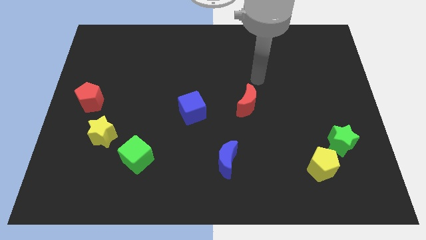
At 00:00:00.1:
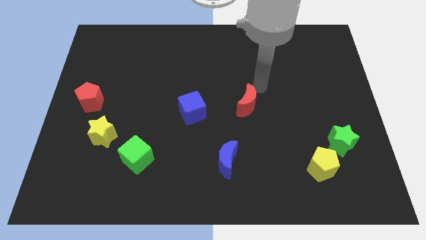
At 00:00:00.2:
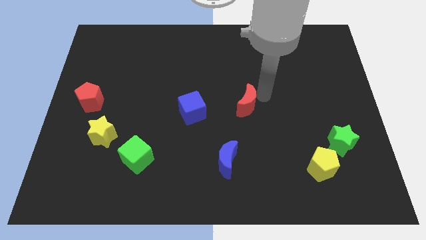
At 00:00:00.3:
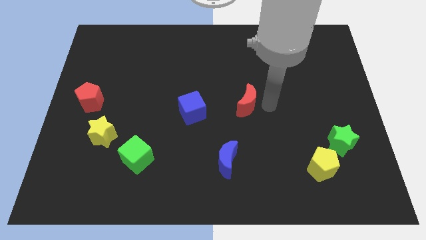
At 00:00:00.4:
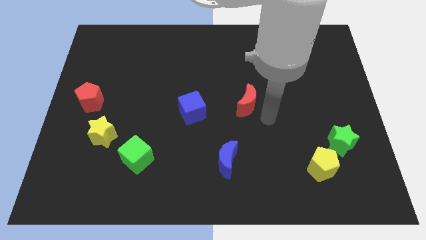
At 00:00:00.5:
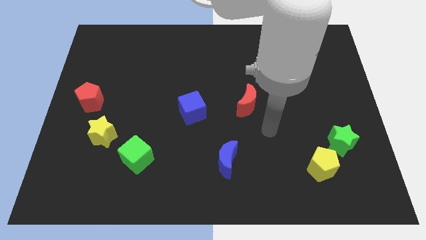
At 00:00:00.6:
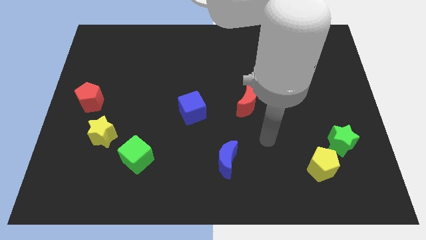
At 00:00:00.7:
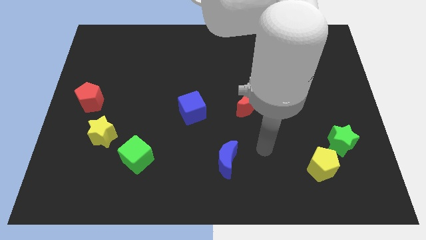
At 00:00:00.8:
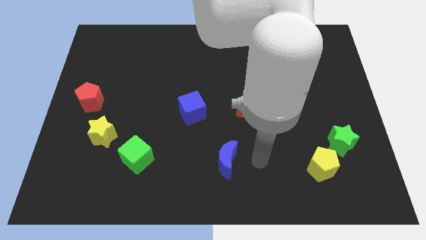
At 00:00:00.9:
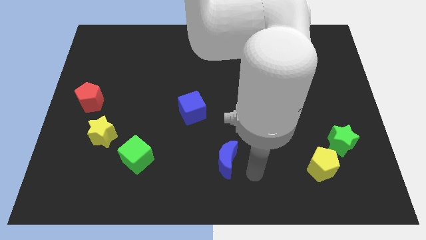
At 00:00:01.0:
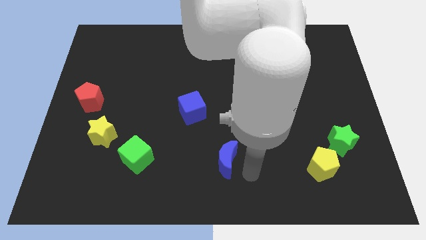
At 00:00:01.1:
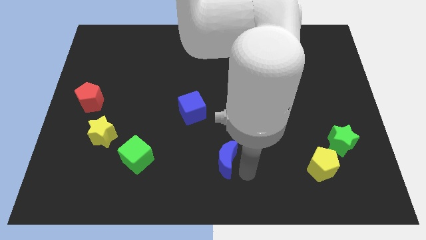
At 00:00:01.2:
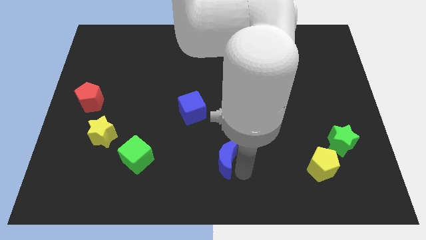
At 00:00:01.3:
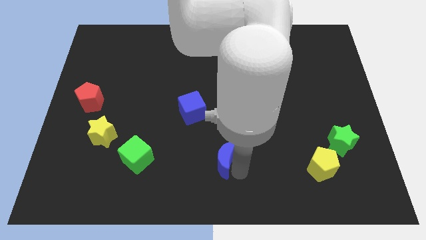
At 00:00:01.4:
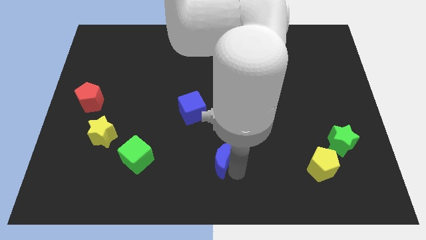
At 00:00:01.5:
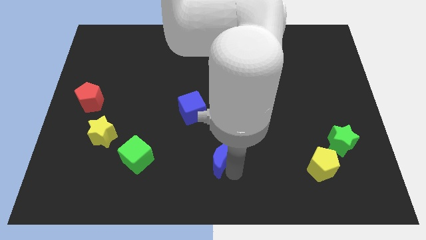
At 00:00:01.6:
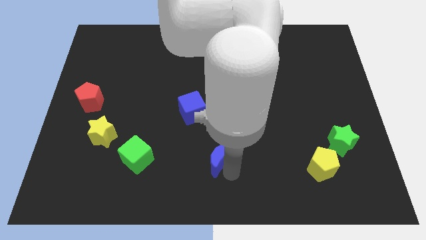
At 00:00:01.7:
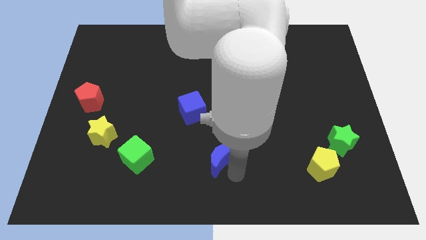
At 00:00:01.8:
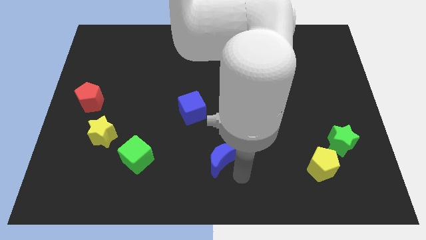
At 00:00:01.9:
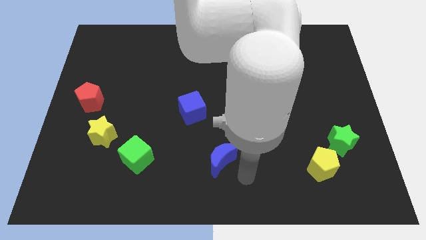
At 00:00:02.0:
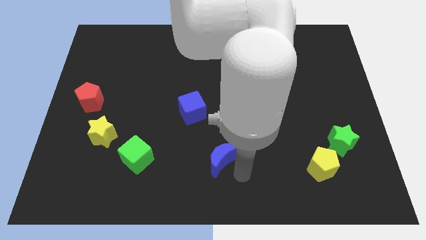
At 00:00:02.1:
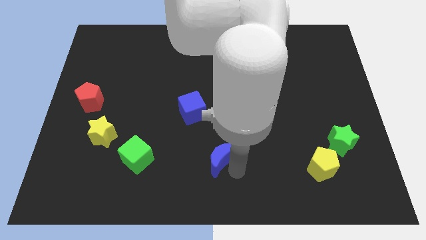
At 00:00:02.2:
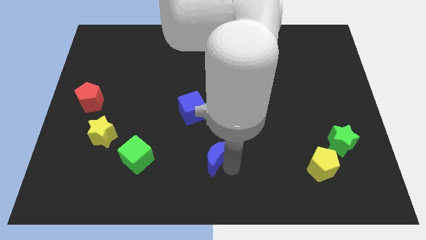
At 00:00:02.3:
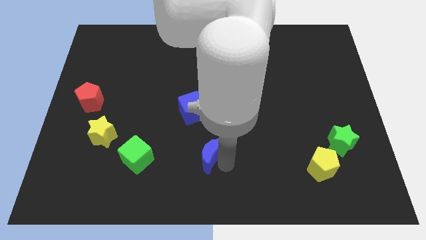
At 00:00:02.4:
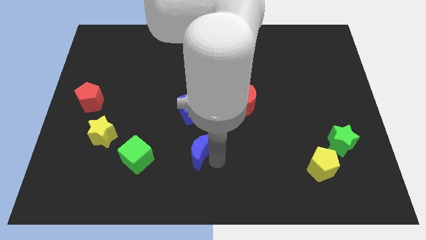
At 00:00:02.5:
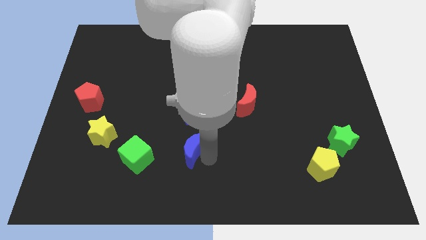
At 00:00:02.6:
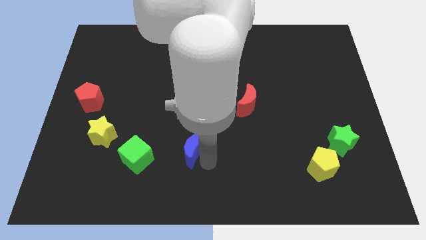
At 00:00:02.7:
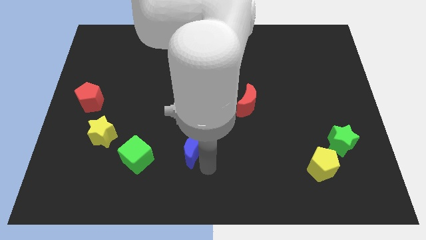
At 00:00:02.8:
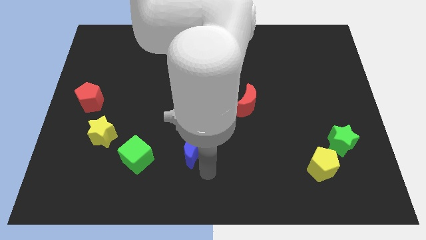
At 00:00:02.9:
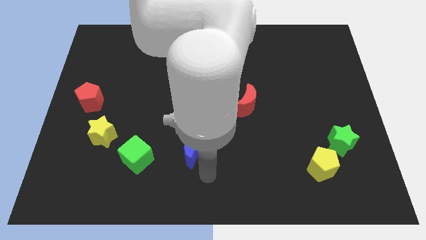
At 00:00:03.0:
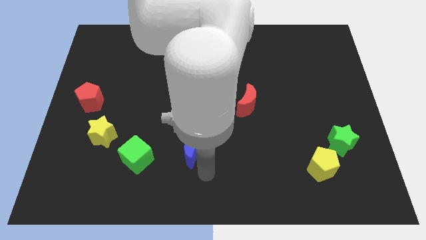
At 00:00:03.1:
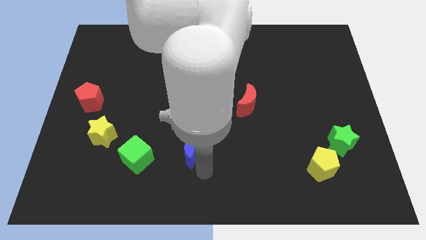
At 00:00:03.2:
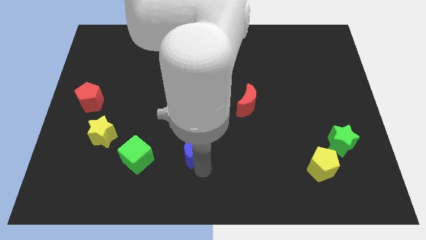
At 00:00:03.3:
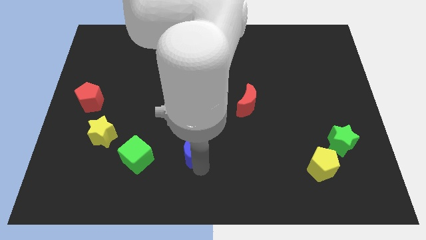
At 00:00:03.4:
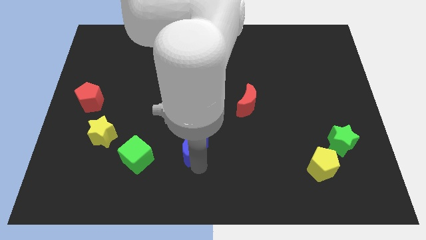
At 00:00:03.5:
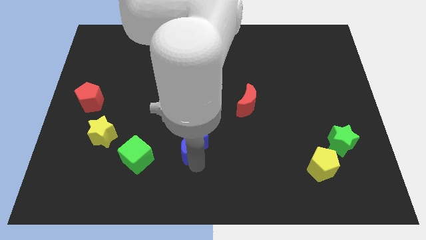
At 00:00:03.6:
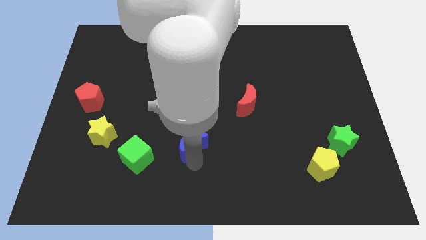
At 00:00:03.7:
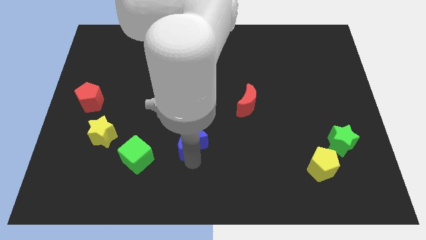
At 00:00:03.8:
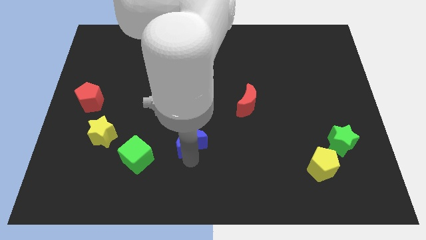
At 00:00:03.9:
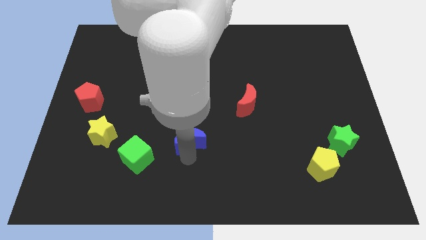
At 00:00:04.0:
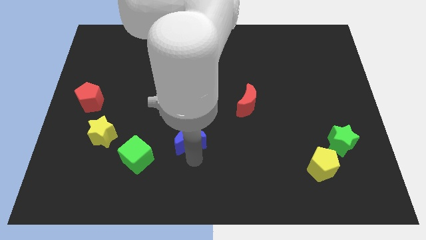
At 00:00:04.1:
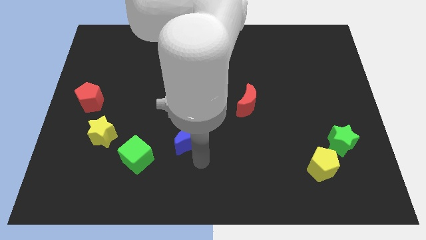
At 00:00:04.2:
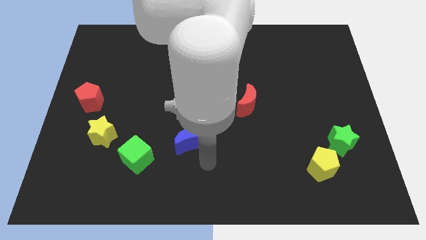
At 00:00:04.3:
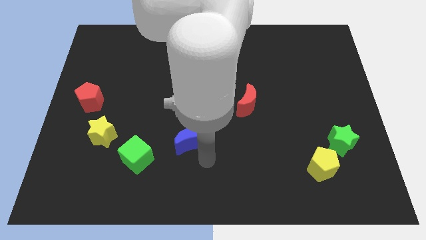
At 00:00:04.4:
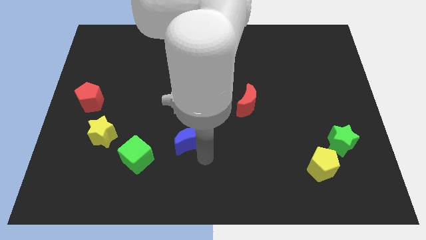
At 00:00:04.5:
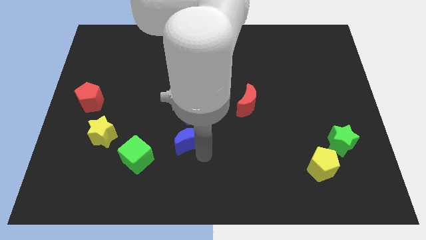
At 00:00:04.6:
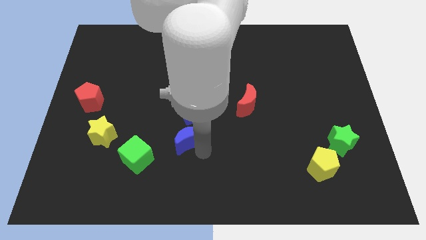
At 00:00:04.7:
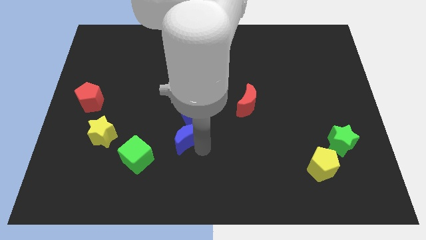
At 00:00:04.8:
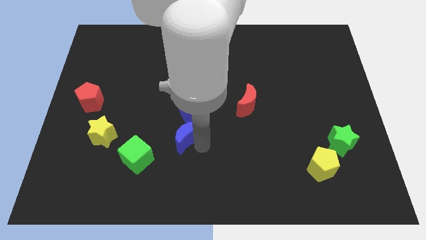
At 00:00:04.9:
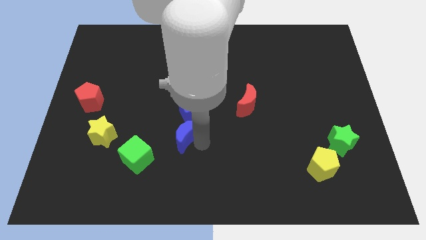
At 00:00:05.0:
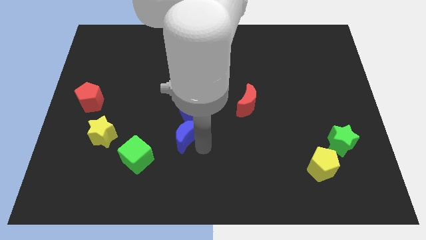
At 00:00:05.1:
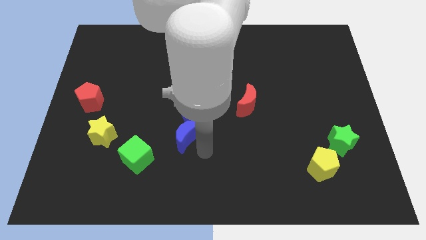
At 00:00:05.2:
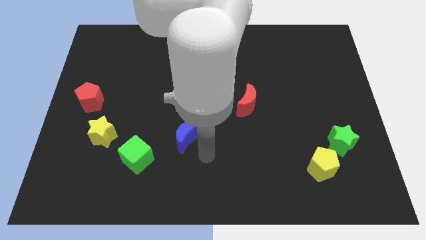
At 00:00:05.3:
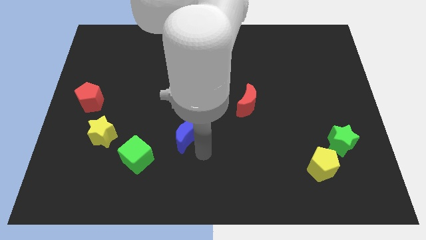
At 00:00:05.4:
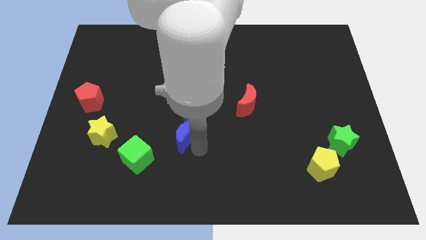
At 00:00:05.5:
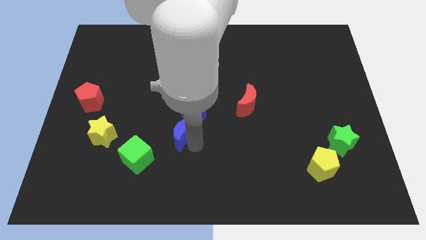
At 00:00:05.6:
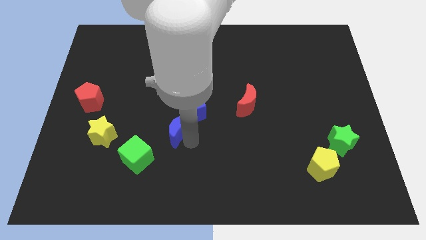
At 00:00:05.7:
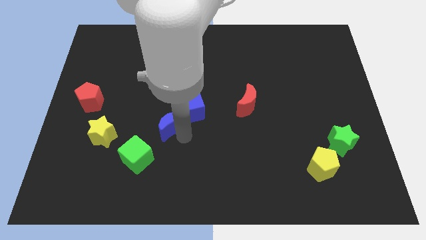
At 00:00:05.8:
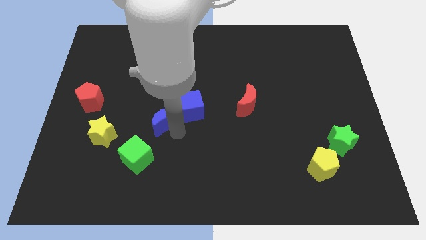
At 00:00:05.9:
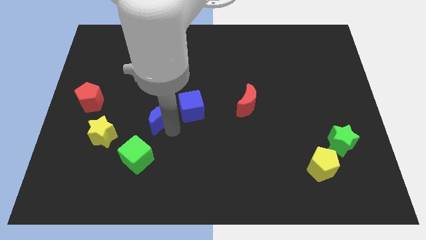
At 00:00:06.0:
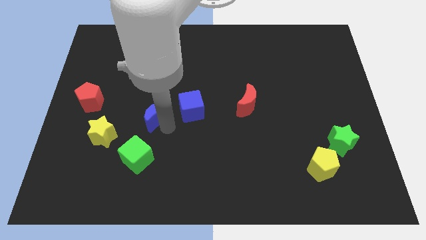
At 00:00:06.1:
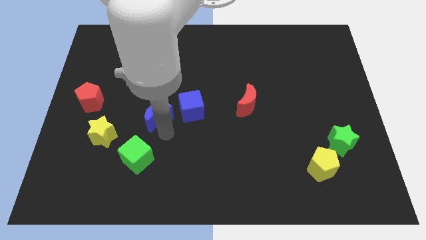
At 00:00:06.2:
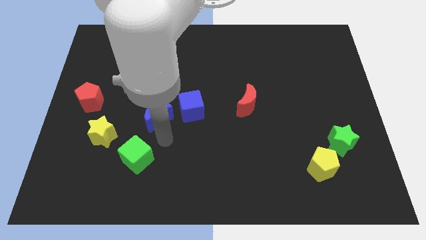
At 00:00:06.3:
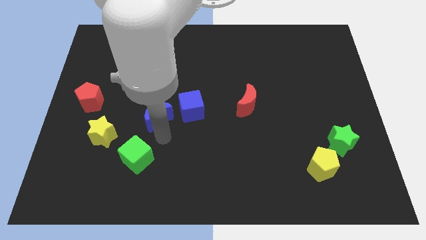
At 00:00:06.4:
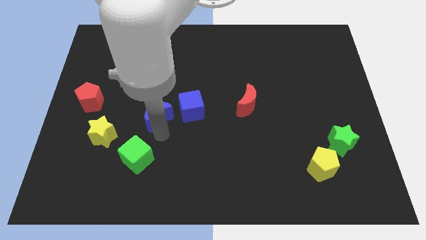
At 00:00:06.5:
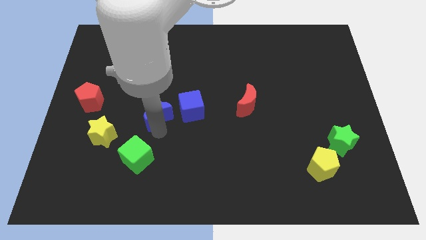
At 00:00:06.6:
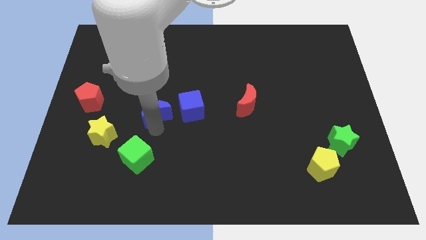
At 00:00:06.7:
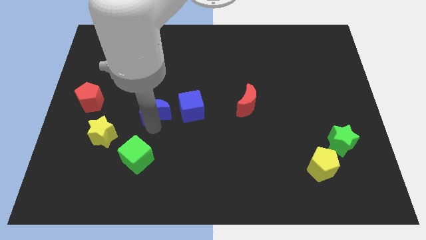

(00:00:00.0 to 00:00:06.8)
push the blue moon up and to the left diagonally

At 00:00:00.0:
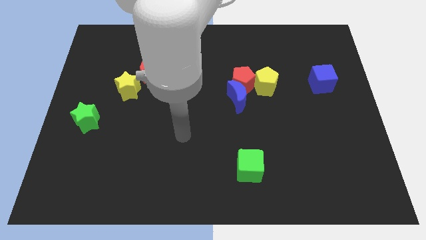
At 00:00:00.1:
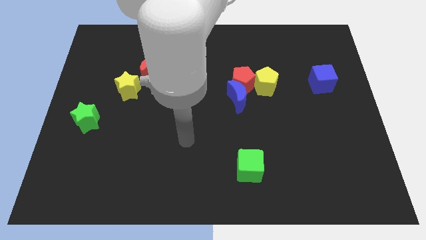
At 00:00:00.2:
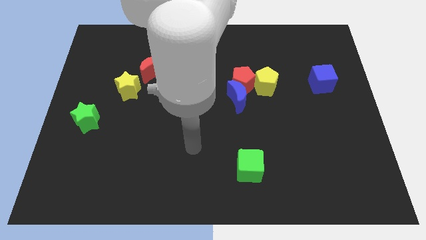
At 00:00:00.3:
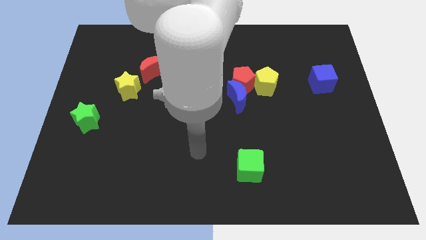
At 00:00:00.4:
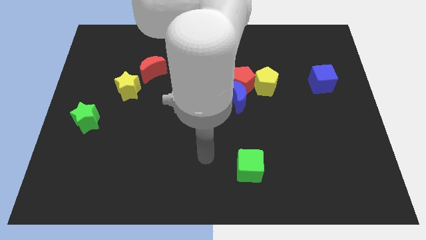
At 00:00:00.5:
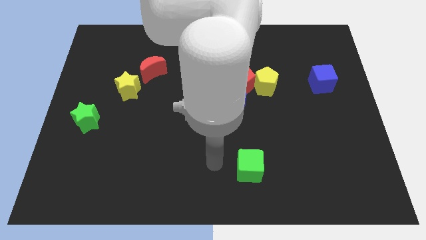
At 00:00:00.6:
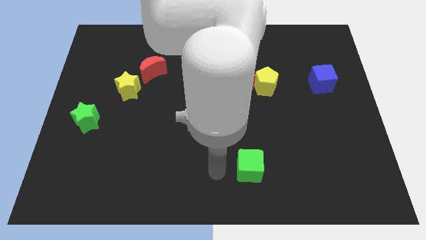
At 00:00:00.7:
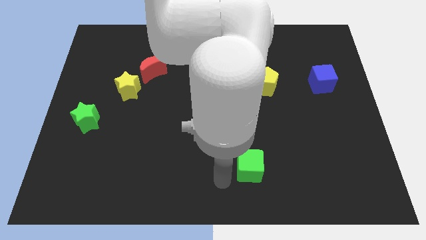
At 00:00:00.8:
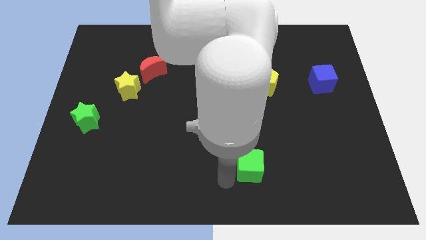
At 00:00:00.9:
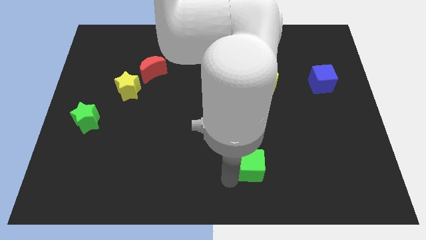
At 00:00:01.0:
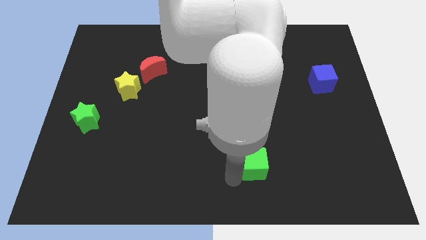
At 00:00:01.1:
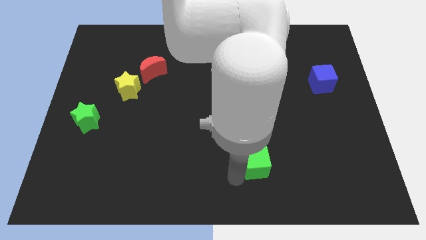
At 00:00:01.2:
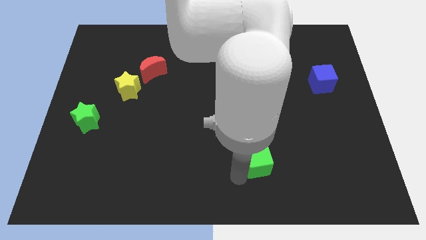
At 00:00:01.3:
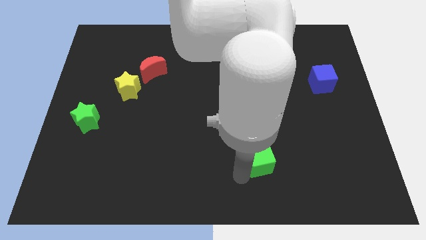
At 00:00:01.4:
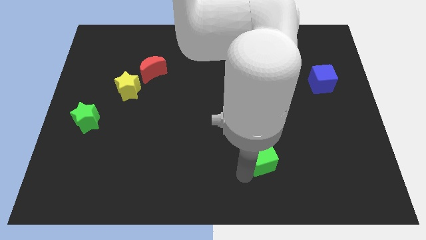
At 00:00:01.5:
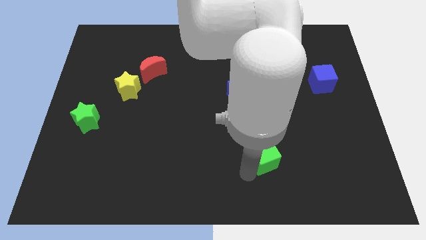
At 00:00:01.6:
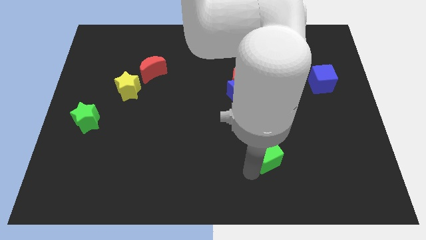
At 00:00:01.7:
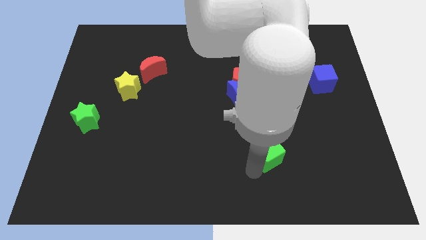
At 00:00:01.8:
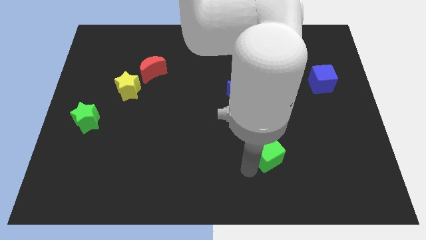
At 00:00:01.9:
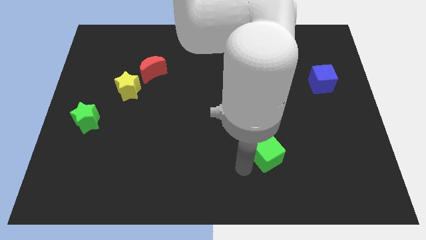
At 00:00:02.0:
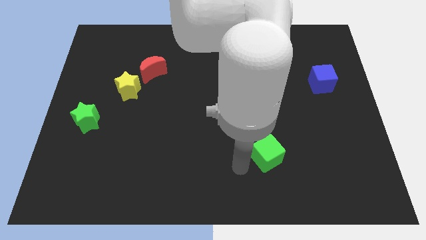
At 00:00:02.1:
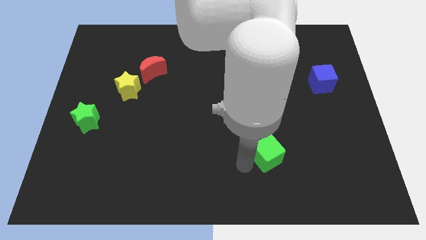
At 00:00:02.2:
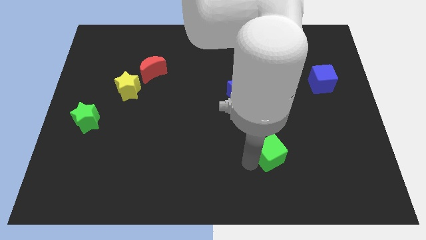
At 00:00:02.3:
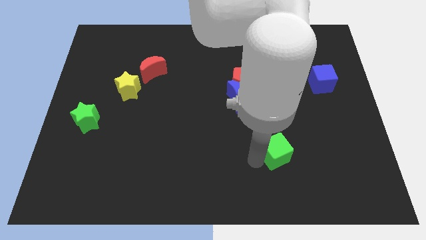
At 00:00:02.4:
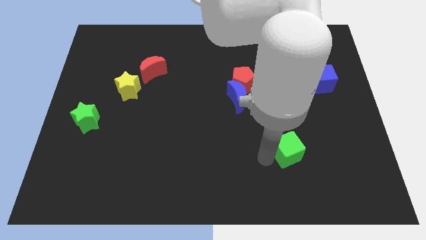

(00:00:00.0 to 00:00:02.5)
move the green cube somewhat up and then to the right
